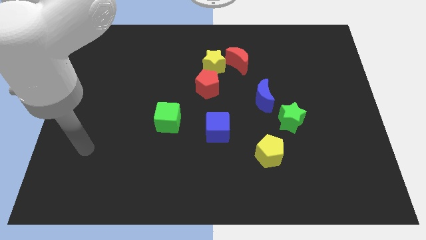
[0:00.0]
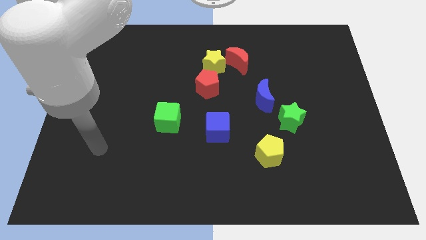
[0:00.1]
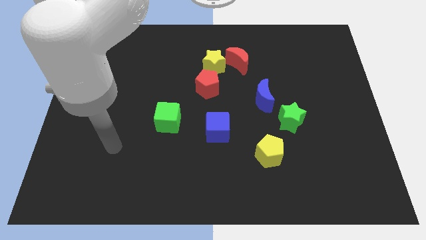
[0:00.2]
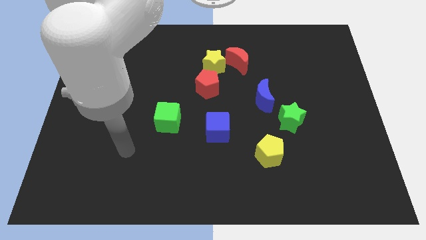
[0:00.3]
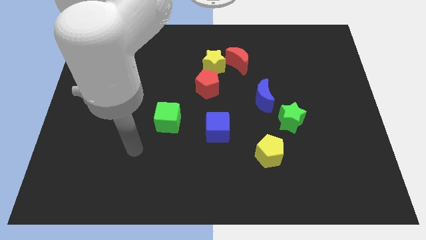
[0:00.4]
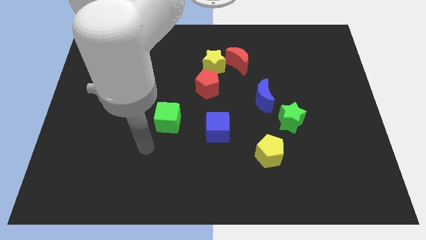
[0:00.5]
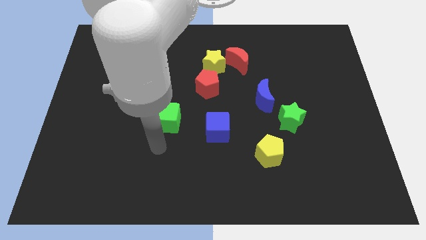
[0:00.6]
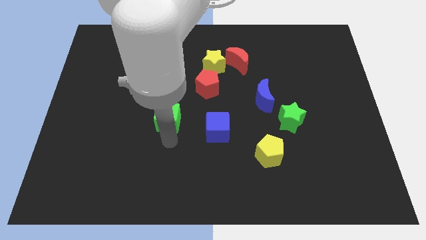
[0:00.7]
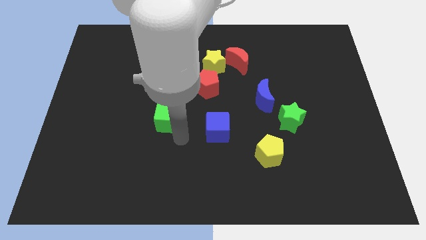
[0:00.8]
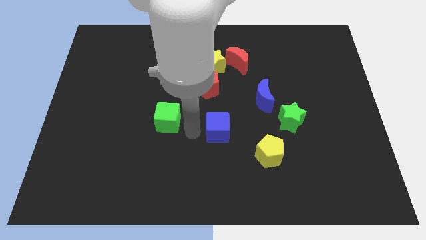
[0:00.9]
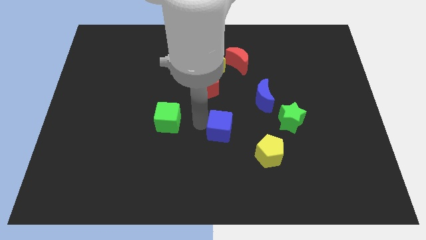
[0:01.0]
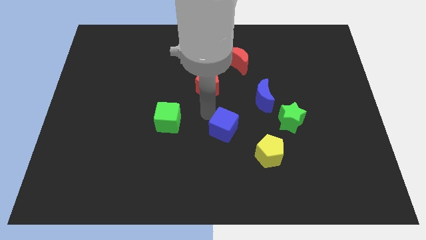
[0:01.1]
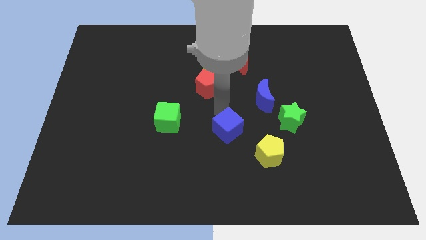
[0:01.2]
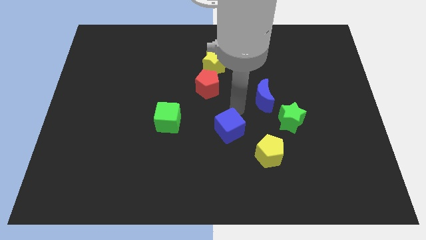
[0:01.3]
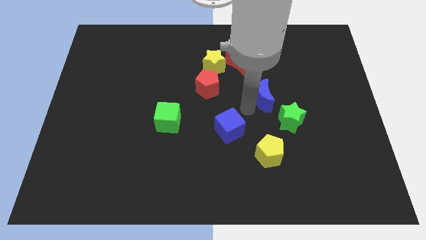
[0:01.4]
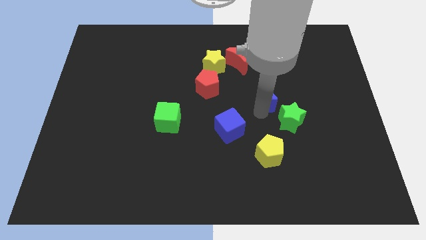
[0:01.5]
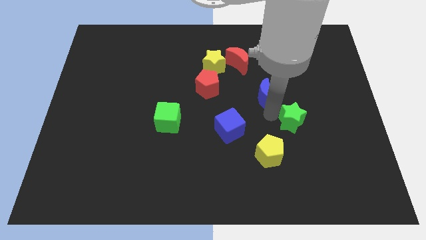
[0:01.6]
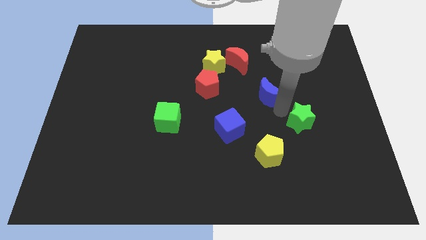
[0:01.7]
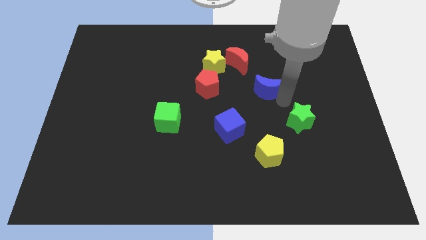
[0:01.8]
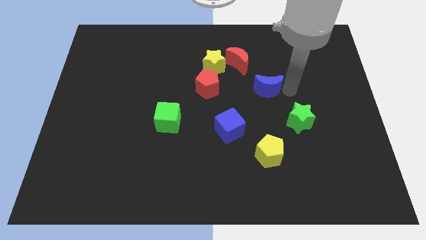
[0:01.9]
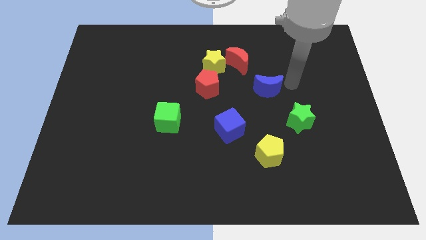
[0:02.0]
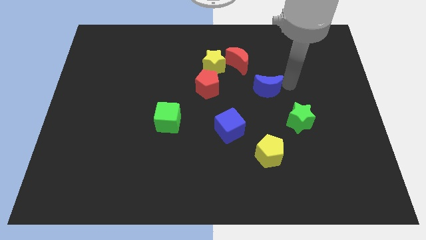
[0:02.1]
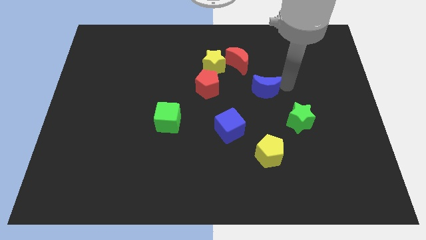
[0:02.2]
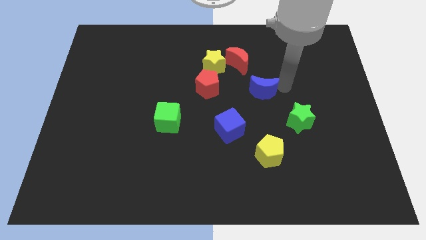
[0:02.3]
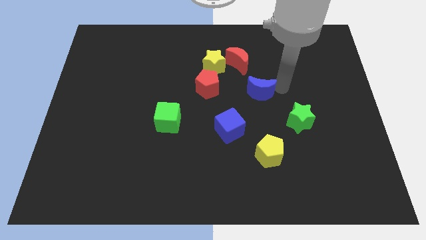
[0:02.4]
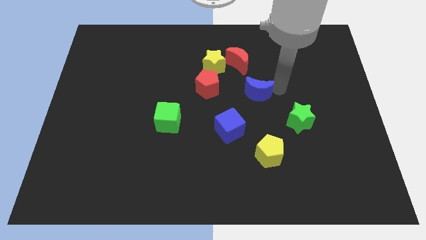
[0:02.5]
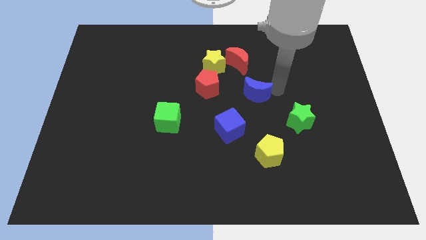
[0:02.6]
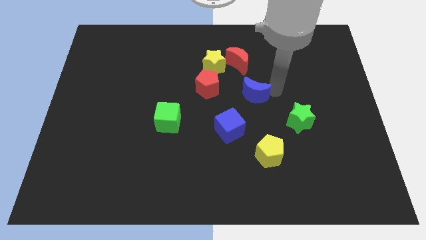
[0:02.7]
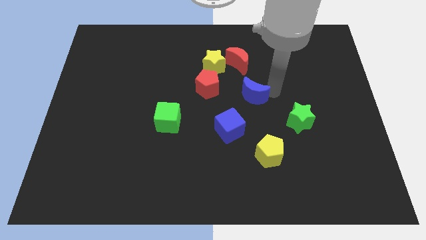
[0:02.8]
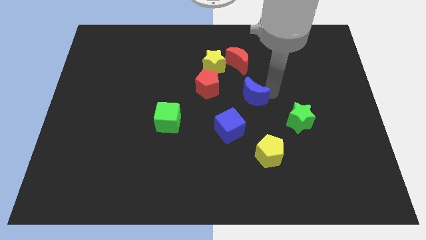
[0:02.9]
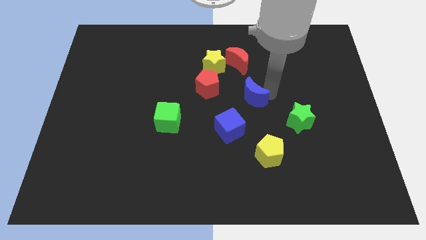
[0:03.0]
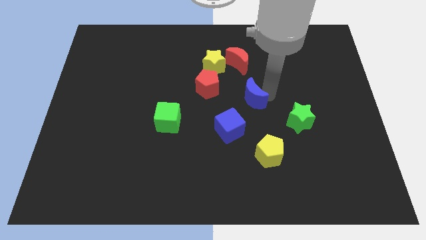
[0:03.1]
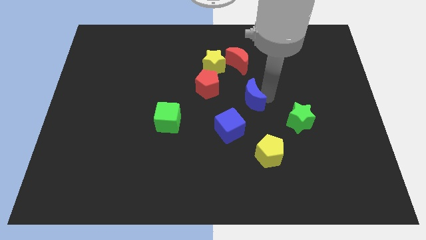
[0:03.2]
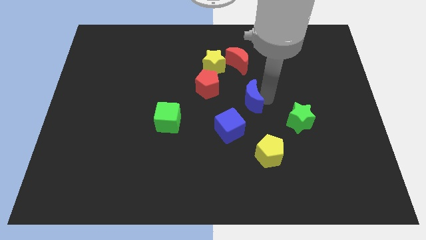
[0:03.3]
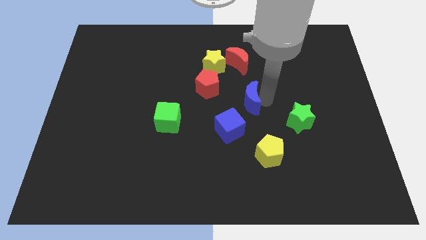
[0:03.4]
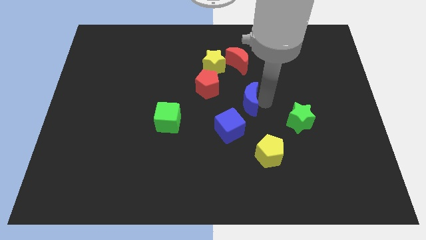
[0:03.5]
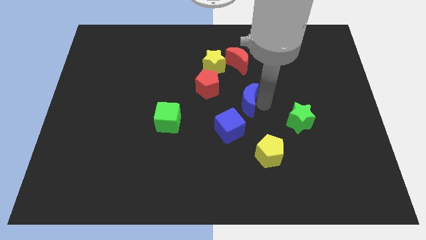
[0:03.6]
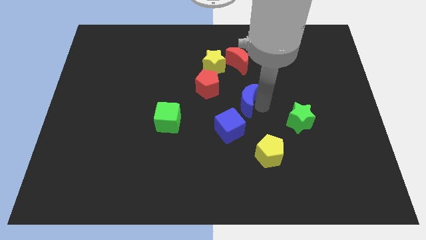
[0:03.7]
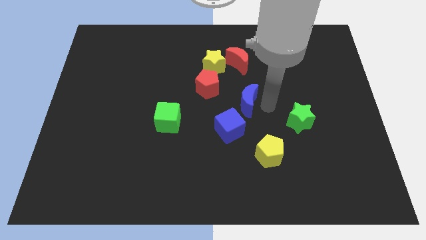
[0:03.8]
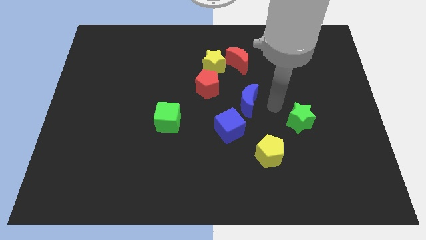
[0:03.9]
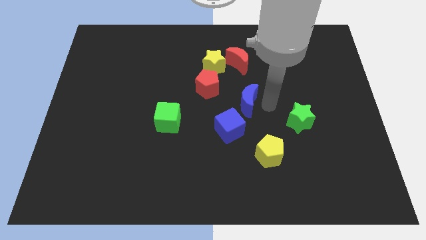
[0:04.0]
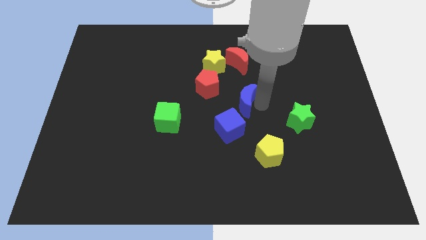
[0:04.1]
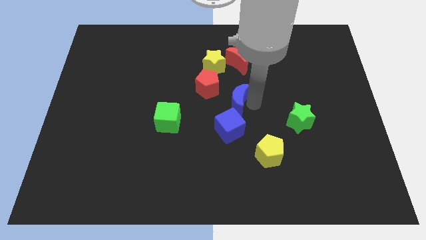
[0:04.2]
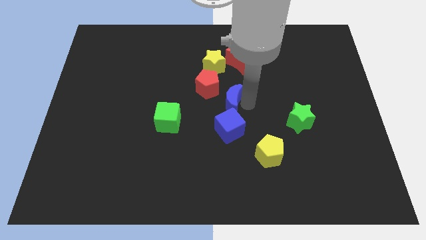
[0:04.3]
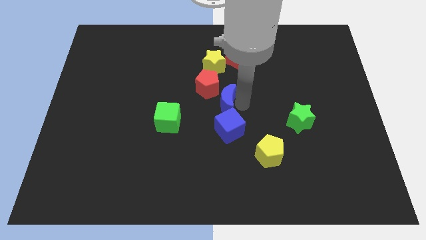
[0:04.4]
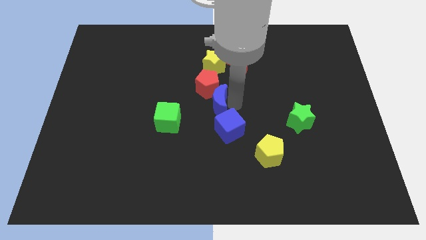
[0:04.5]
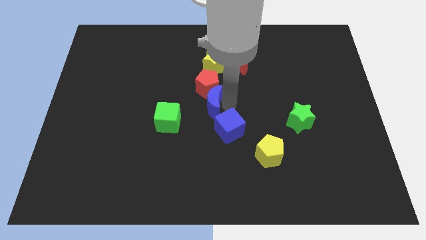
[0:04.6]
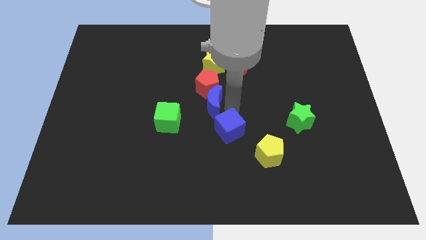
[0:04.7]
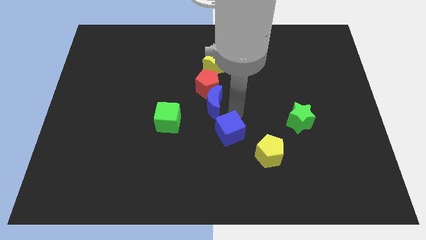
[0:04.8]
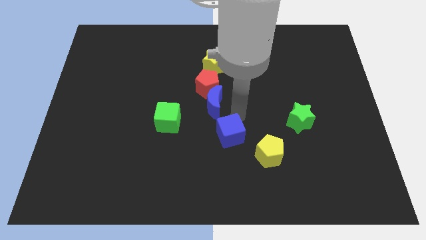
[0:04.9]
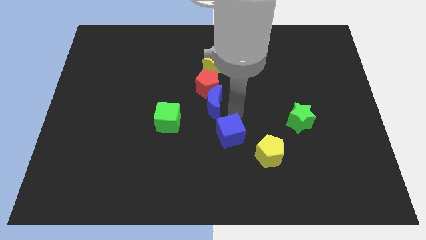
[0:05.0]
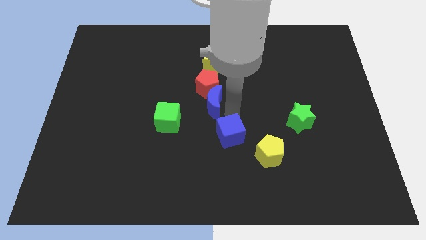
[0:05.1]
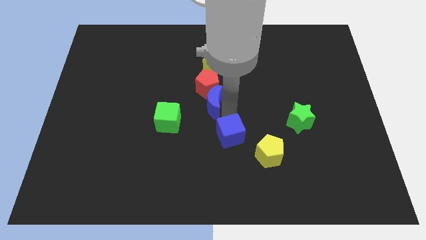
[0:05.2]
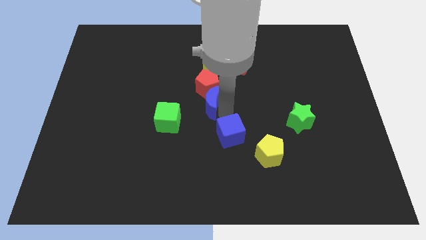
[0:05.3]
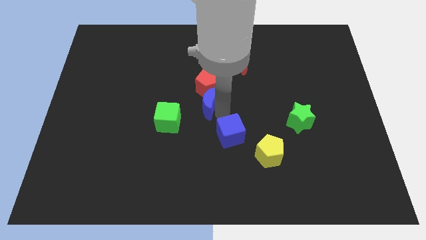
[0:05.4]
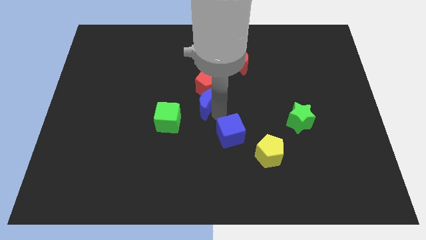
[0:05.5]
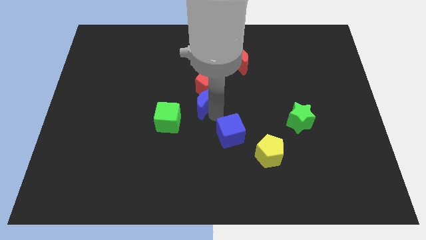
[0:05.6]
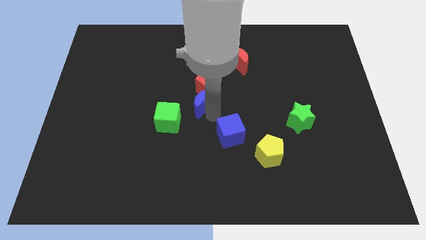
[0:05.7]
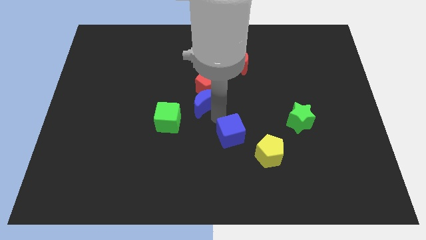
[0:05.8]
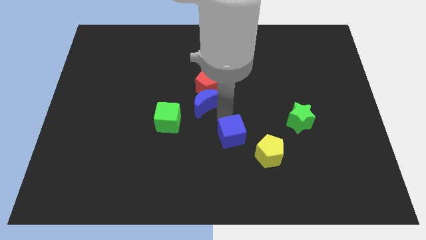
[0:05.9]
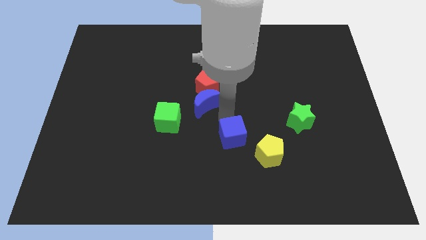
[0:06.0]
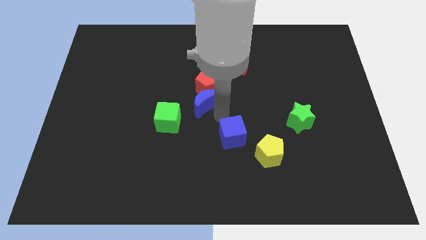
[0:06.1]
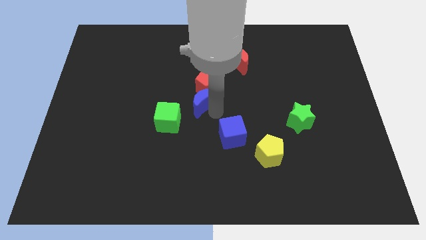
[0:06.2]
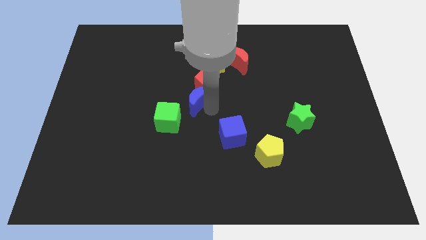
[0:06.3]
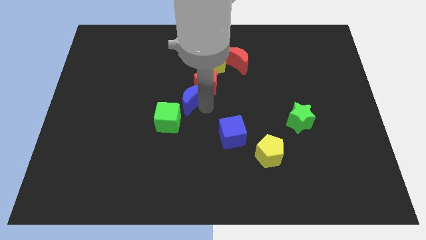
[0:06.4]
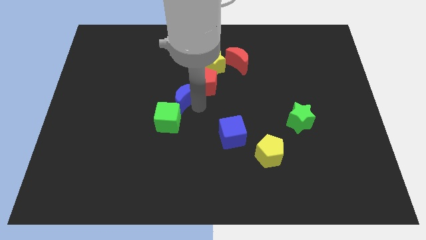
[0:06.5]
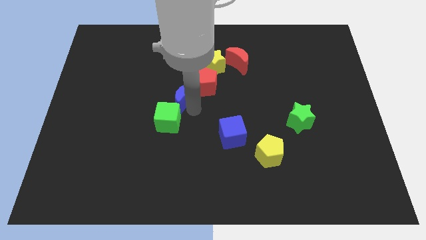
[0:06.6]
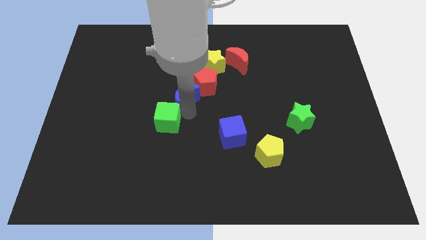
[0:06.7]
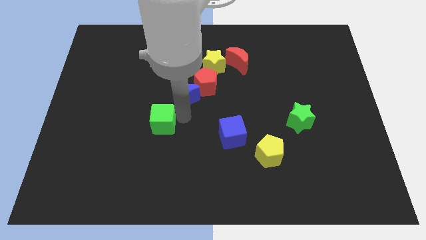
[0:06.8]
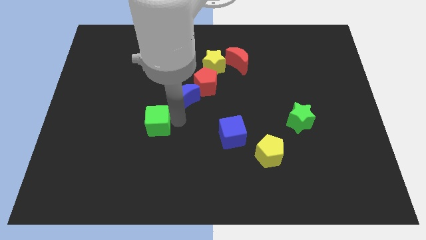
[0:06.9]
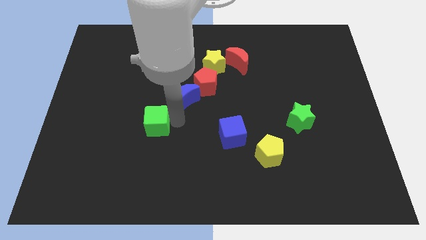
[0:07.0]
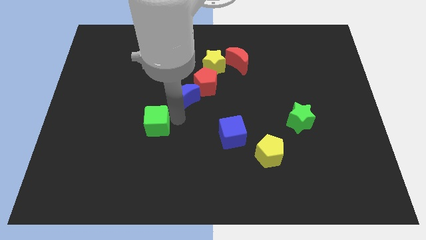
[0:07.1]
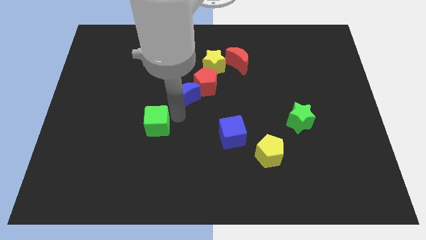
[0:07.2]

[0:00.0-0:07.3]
move the blue moon to the bottom left side of the yellow star
